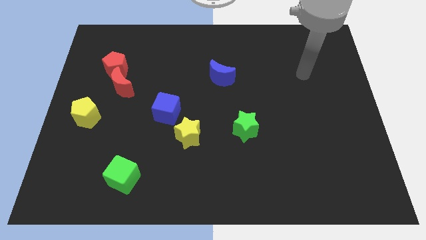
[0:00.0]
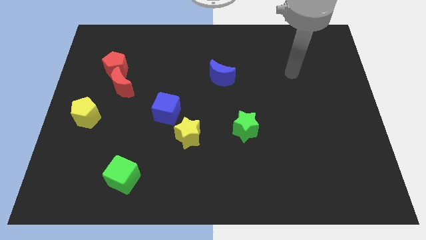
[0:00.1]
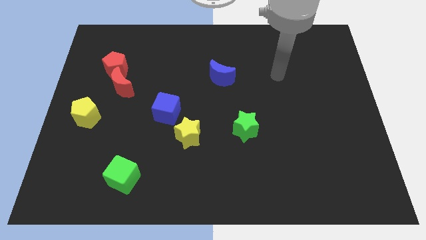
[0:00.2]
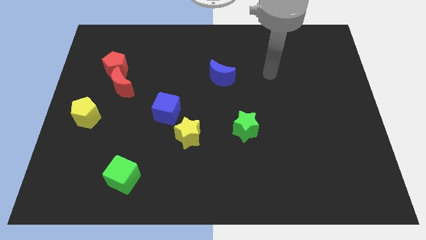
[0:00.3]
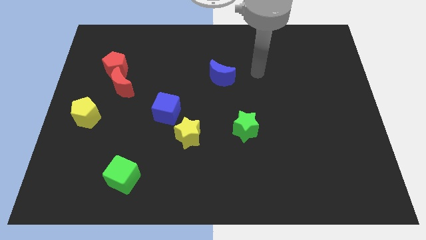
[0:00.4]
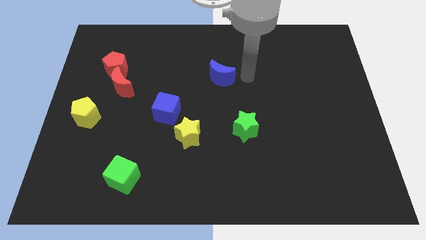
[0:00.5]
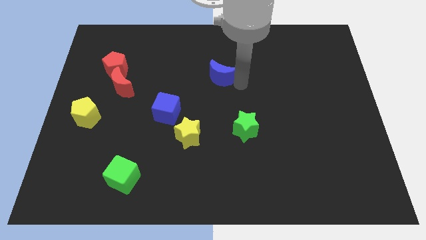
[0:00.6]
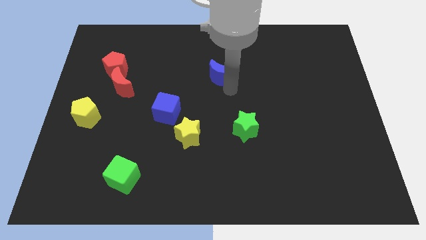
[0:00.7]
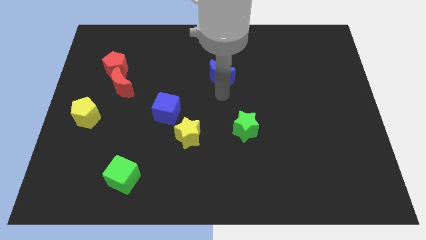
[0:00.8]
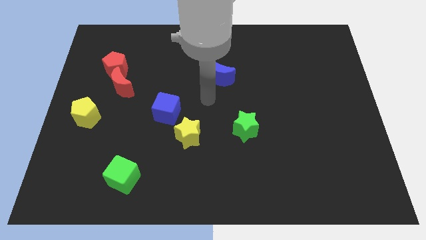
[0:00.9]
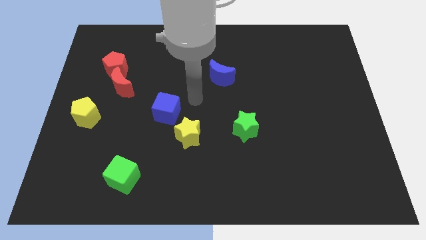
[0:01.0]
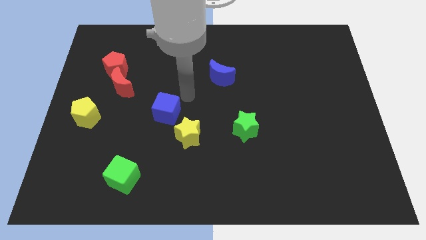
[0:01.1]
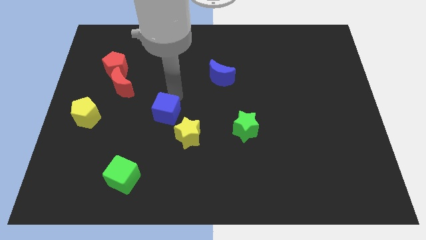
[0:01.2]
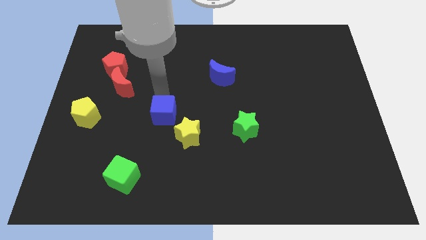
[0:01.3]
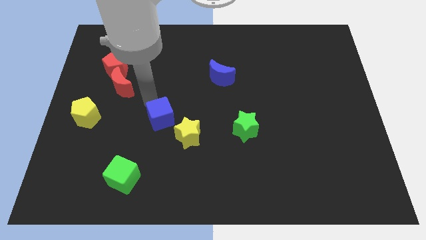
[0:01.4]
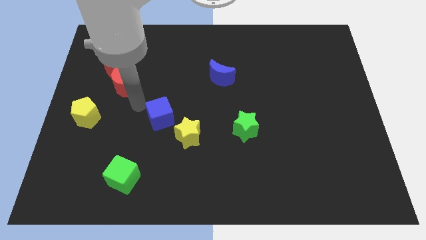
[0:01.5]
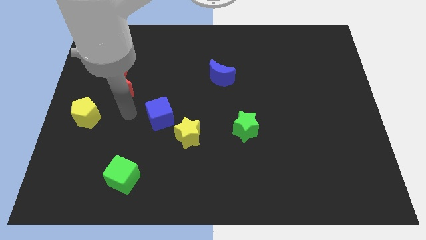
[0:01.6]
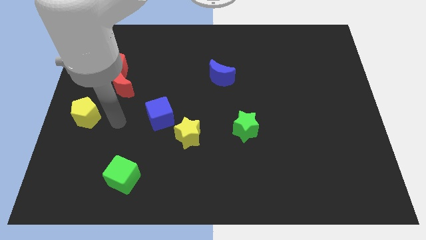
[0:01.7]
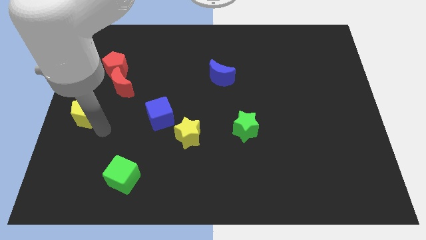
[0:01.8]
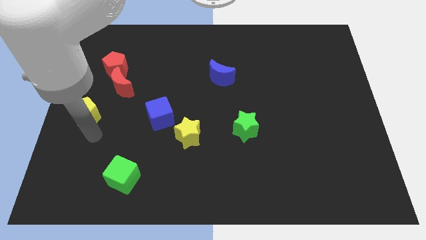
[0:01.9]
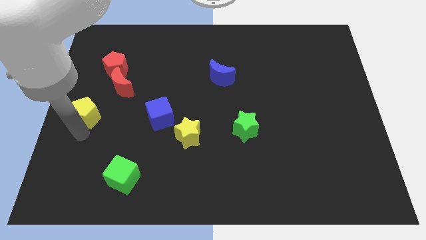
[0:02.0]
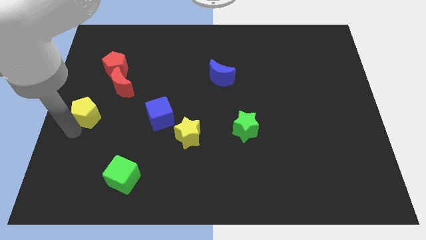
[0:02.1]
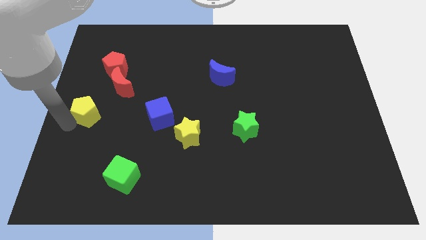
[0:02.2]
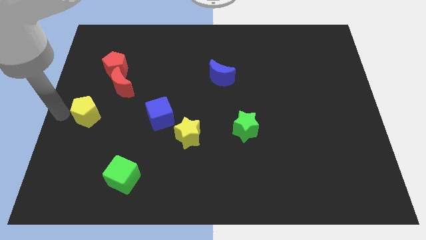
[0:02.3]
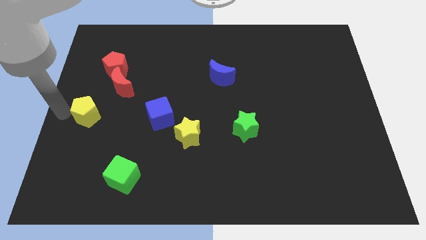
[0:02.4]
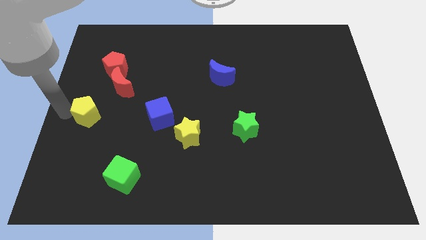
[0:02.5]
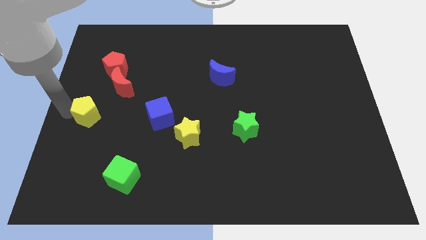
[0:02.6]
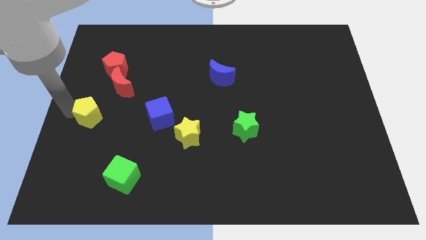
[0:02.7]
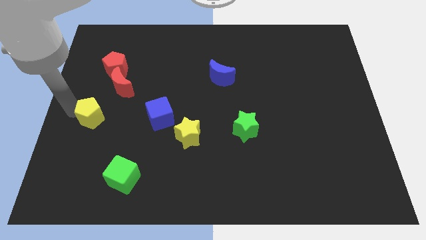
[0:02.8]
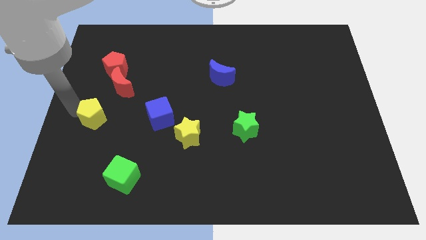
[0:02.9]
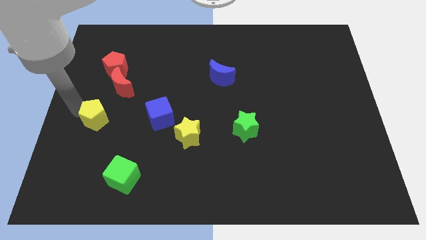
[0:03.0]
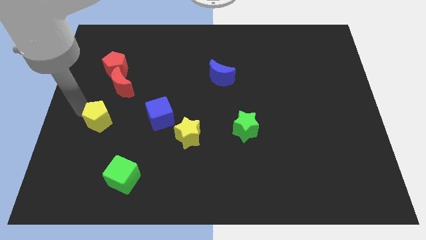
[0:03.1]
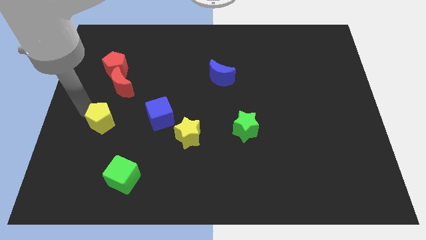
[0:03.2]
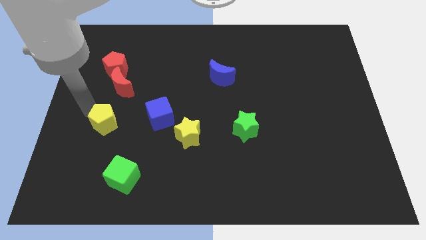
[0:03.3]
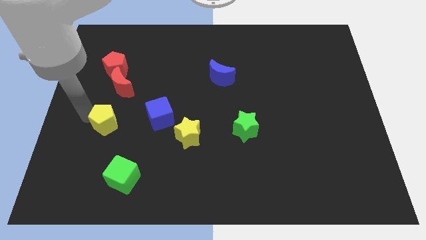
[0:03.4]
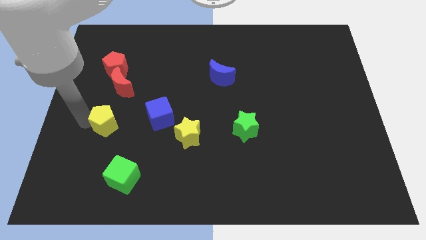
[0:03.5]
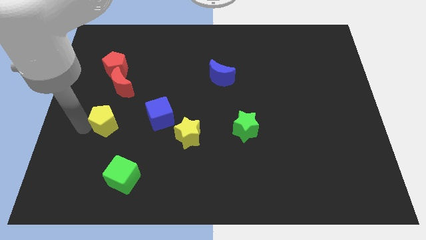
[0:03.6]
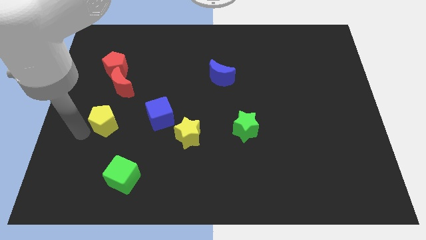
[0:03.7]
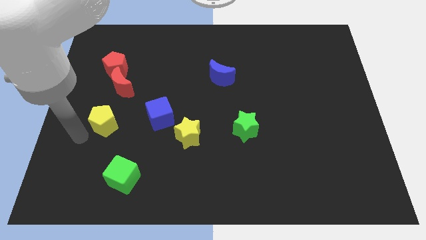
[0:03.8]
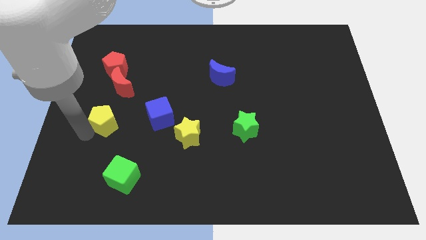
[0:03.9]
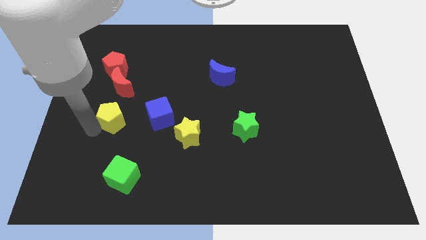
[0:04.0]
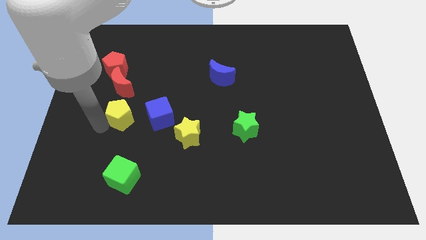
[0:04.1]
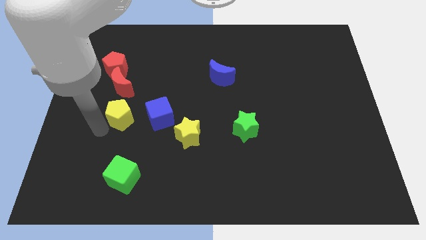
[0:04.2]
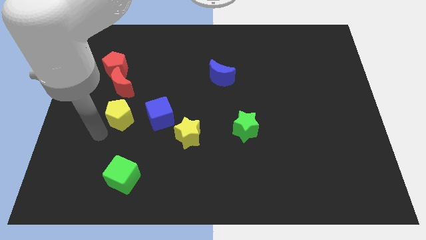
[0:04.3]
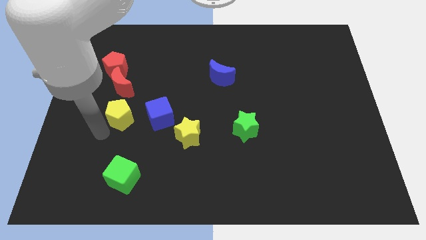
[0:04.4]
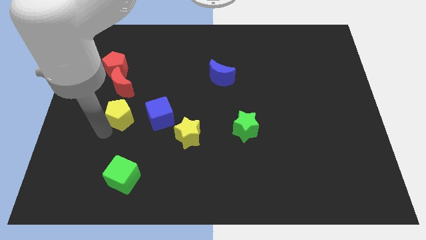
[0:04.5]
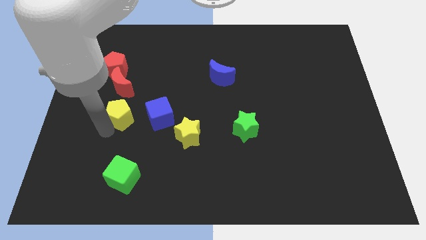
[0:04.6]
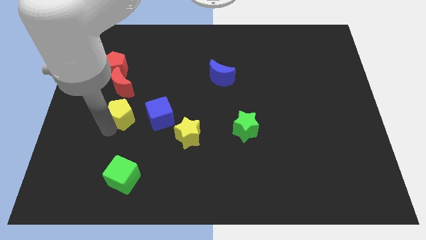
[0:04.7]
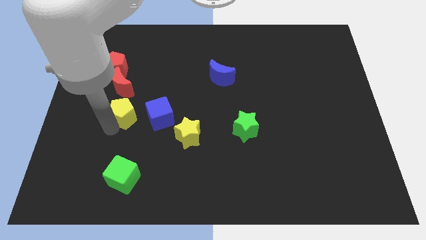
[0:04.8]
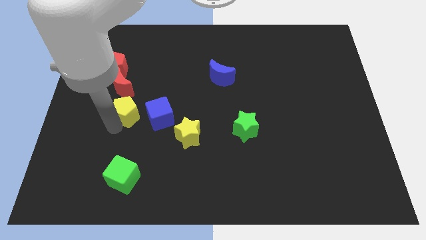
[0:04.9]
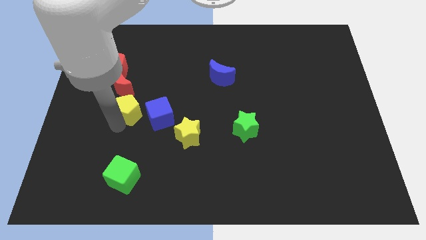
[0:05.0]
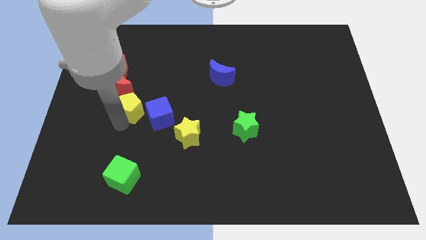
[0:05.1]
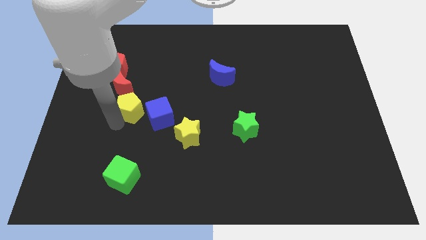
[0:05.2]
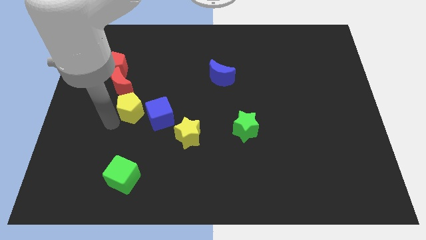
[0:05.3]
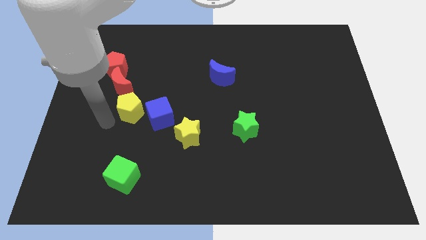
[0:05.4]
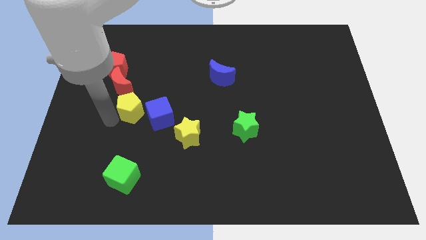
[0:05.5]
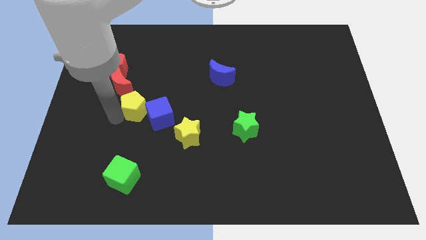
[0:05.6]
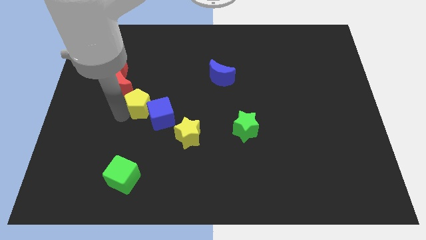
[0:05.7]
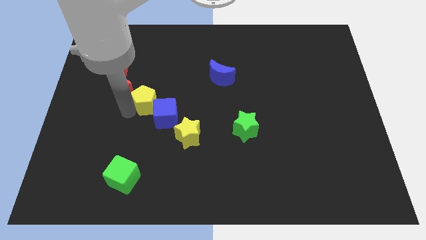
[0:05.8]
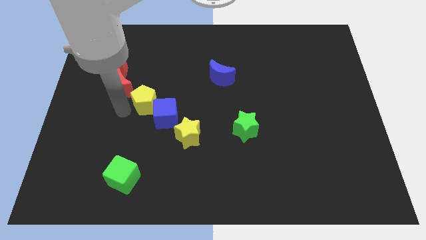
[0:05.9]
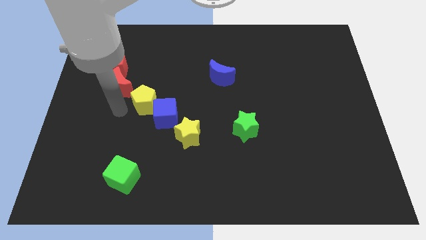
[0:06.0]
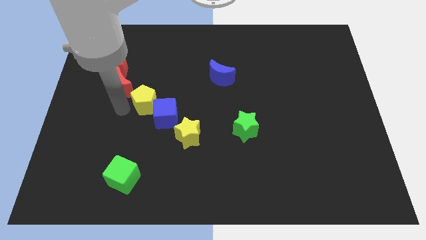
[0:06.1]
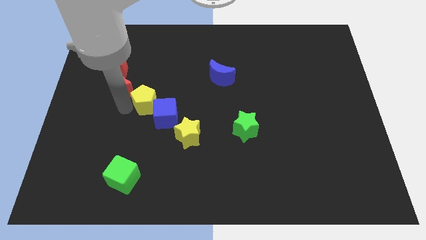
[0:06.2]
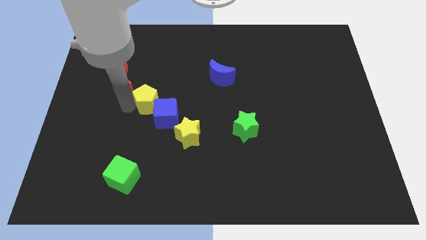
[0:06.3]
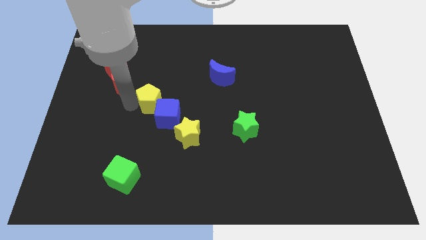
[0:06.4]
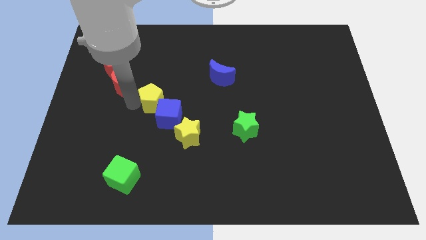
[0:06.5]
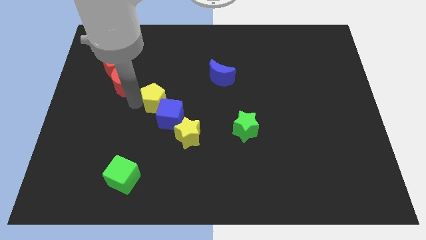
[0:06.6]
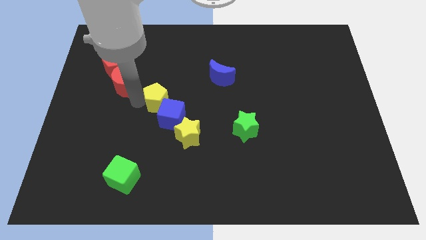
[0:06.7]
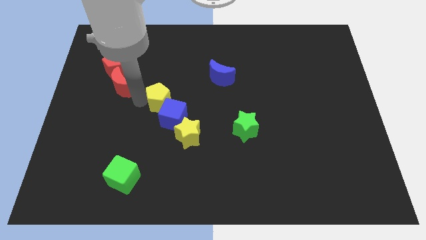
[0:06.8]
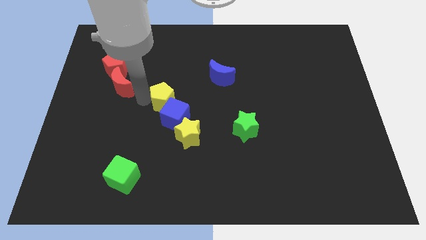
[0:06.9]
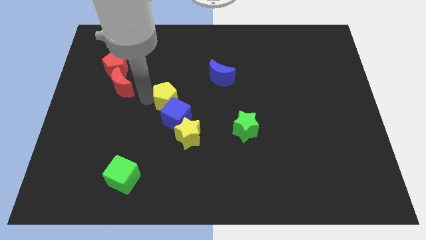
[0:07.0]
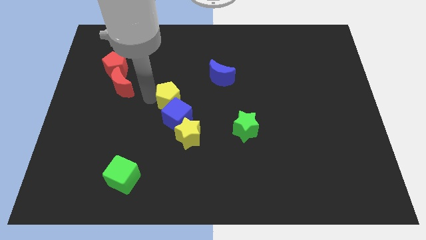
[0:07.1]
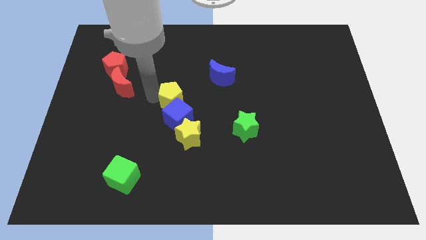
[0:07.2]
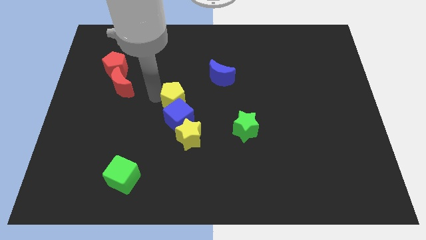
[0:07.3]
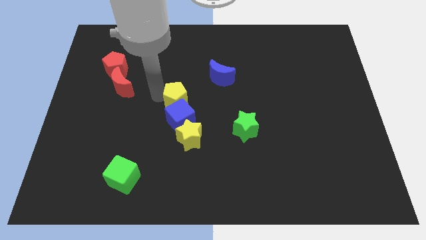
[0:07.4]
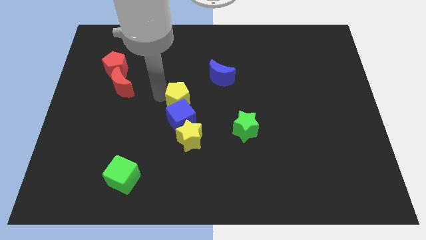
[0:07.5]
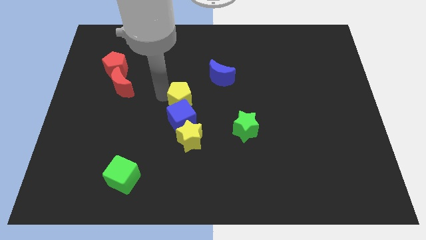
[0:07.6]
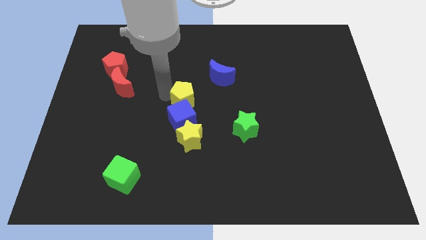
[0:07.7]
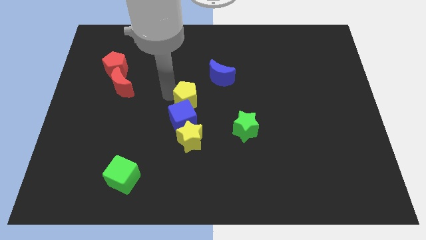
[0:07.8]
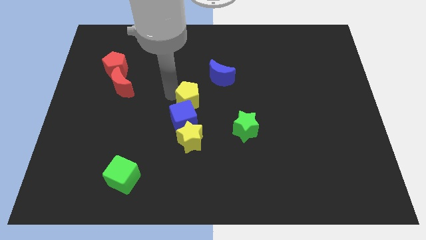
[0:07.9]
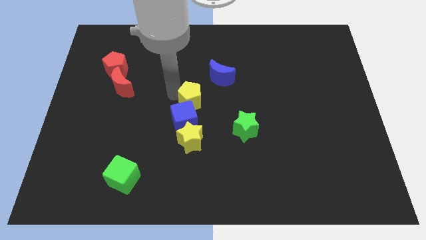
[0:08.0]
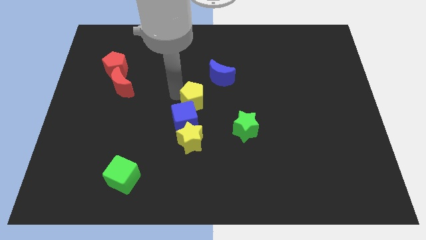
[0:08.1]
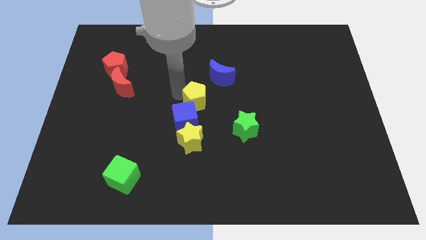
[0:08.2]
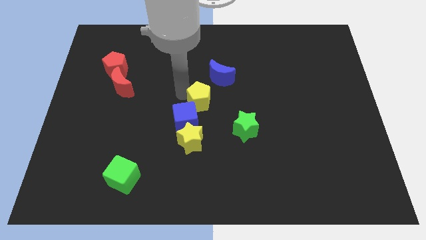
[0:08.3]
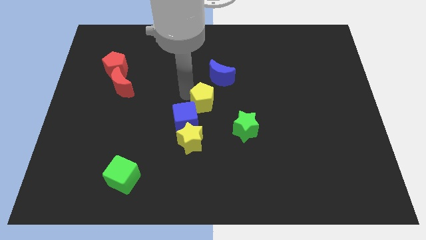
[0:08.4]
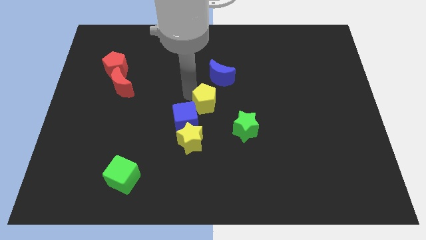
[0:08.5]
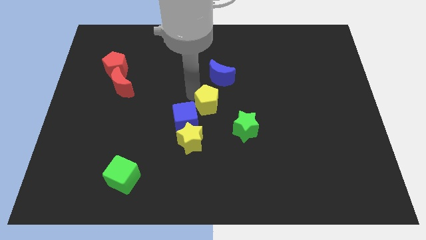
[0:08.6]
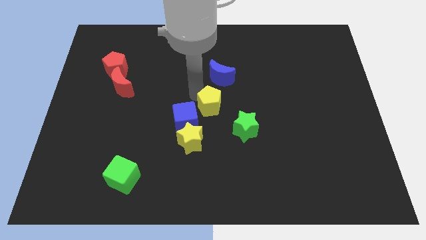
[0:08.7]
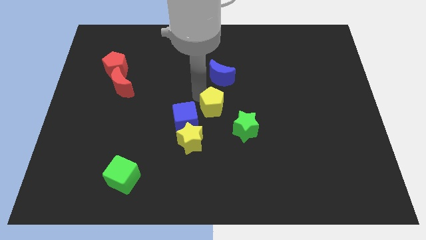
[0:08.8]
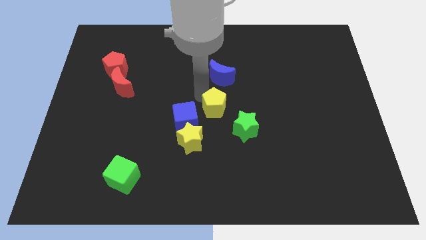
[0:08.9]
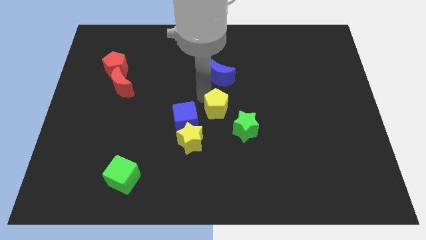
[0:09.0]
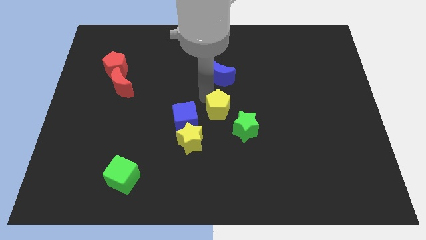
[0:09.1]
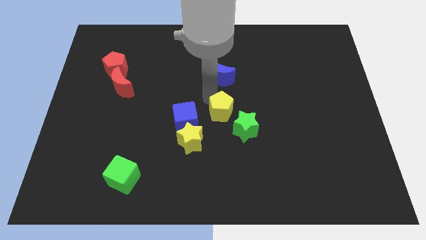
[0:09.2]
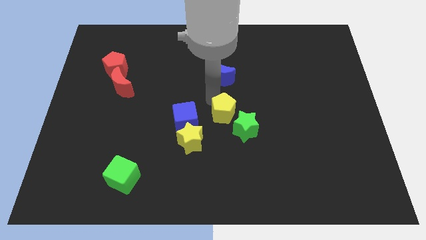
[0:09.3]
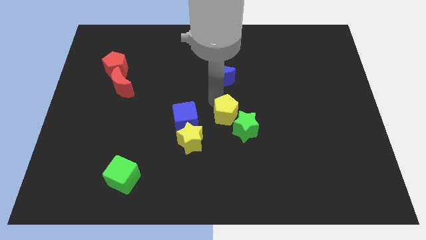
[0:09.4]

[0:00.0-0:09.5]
slide the yellow pentagon next to the green star
